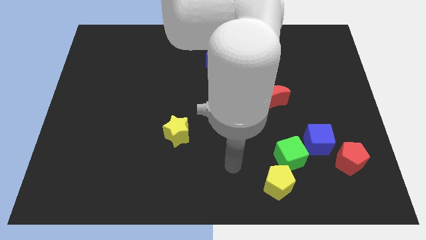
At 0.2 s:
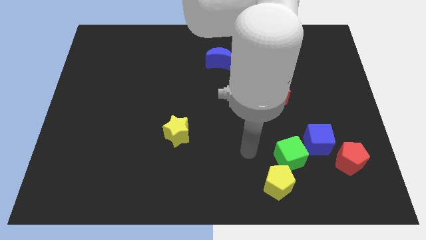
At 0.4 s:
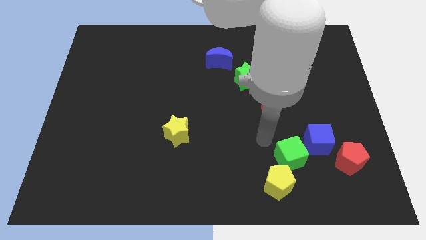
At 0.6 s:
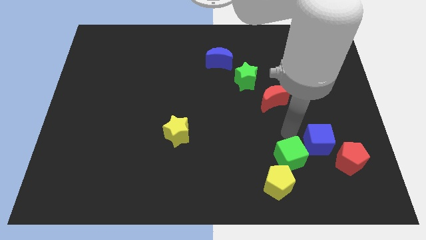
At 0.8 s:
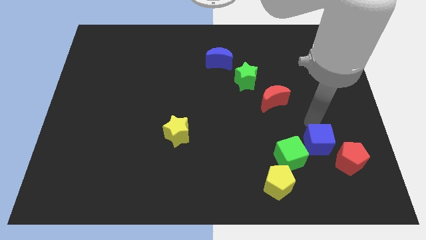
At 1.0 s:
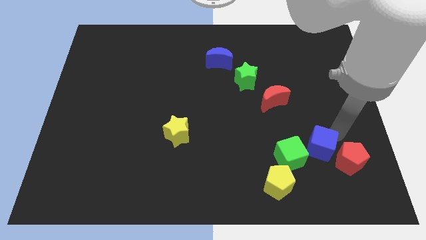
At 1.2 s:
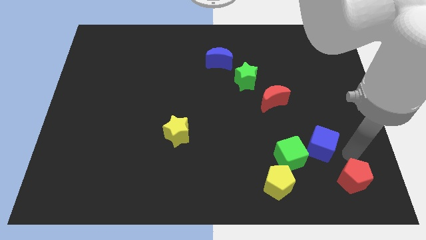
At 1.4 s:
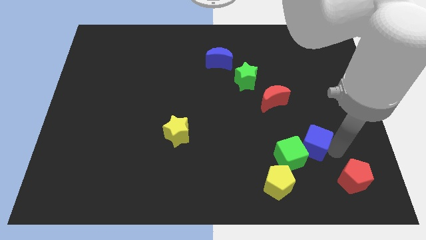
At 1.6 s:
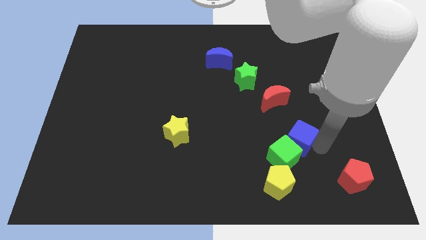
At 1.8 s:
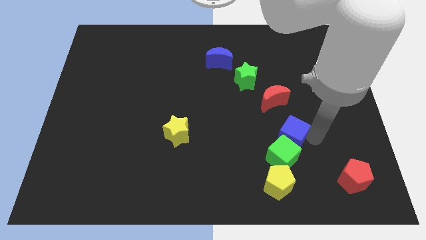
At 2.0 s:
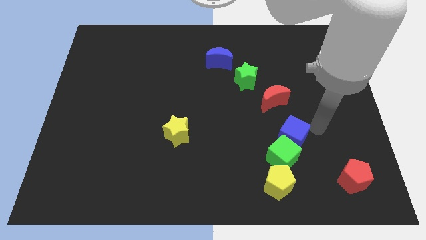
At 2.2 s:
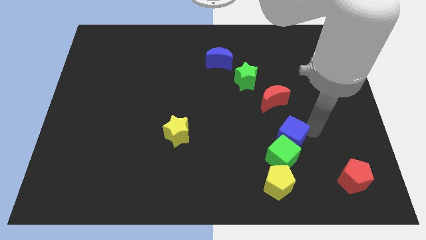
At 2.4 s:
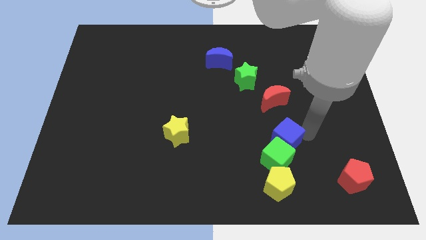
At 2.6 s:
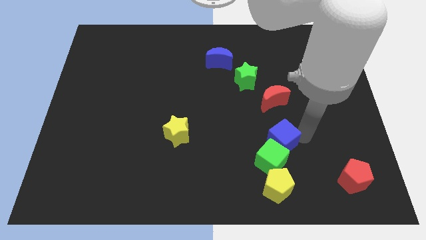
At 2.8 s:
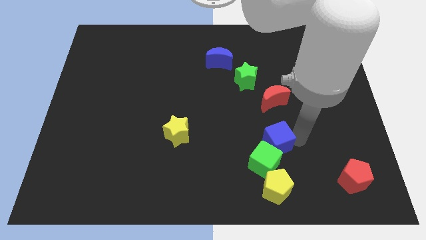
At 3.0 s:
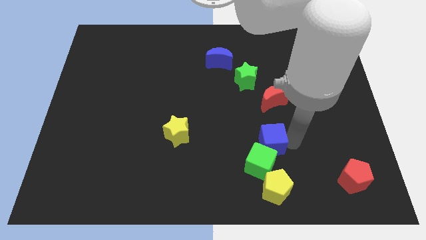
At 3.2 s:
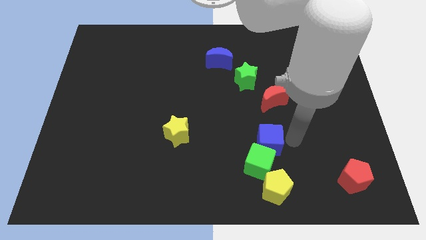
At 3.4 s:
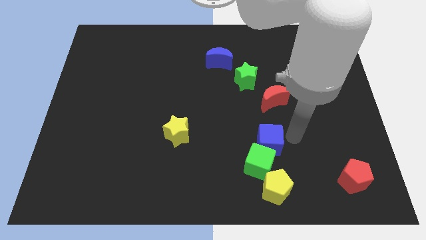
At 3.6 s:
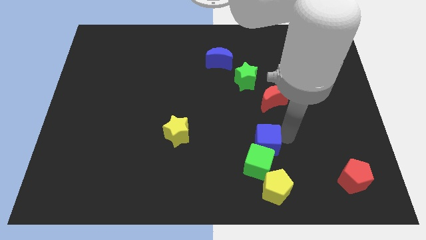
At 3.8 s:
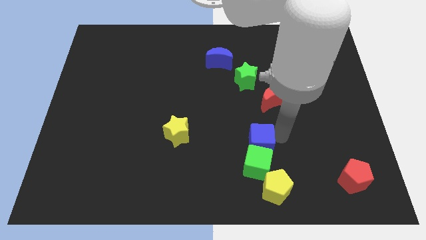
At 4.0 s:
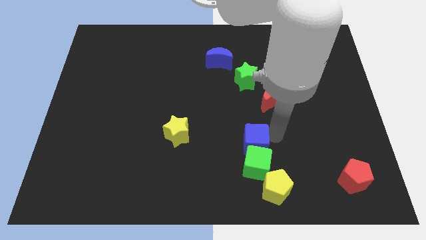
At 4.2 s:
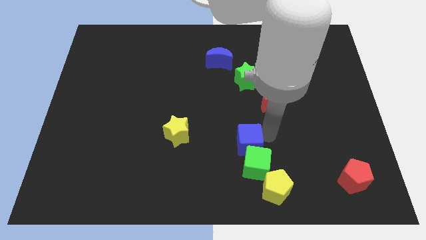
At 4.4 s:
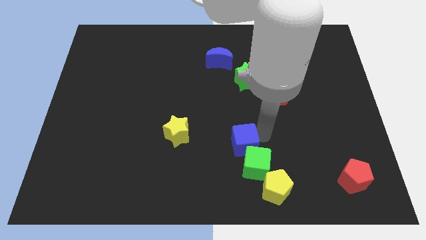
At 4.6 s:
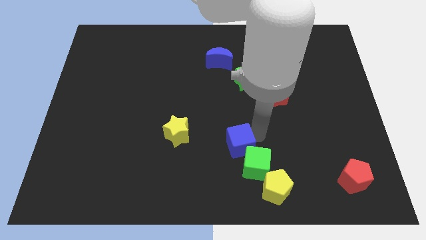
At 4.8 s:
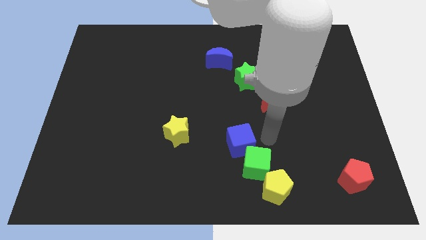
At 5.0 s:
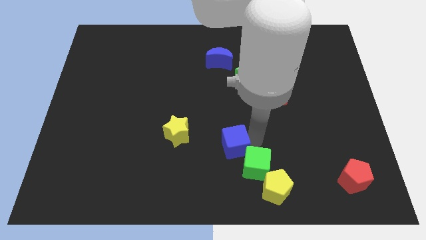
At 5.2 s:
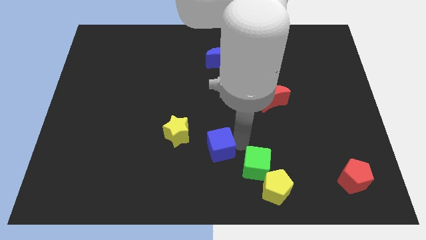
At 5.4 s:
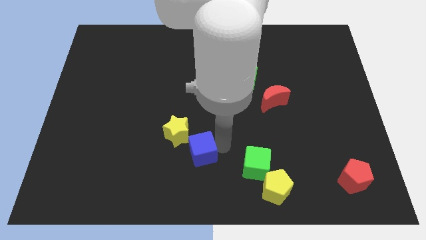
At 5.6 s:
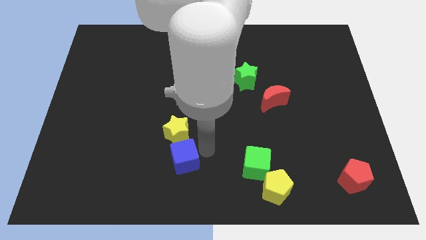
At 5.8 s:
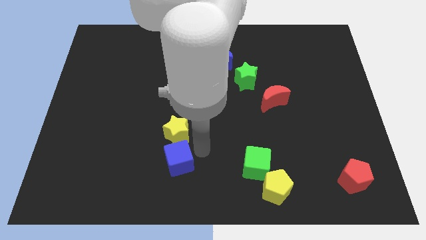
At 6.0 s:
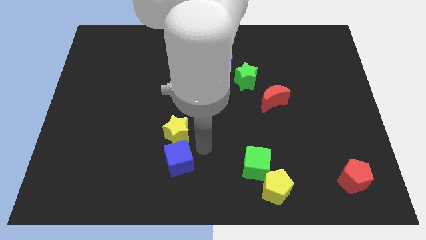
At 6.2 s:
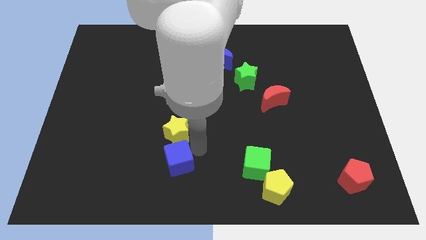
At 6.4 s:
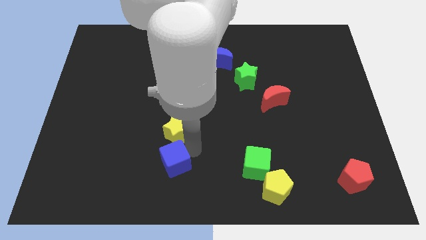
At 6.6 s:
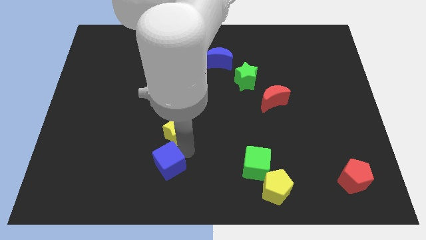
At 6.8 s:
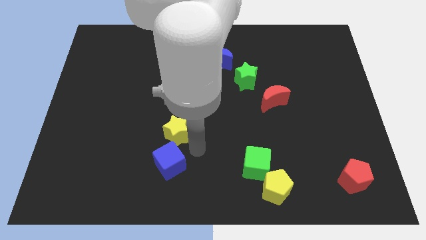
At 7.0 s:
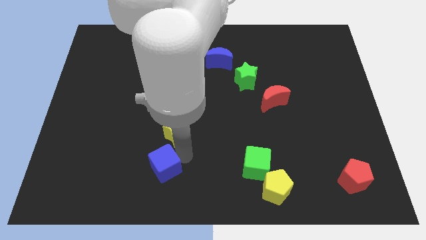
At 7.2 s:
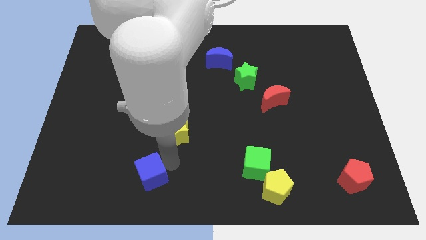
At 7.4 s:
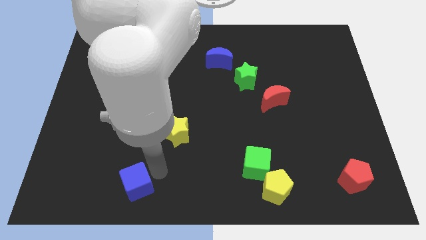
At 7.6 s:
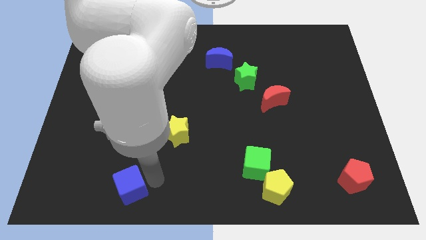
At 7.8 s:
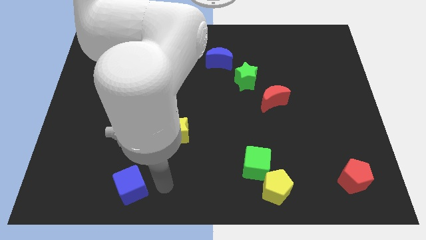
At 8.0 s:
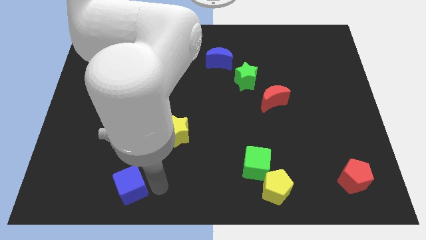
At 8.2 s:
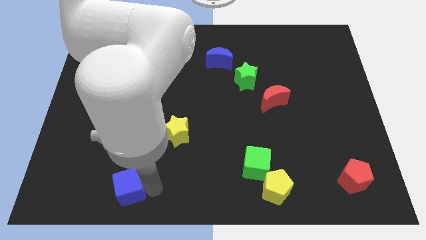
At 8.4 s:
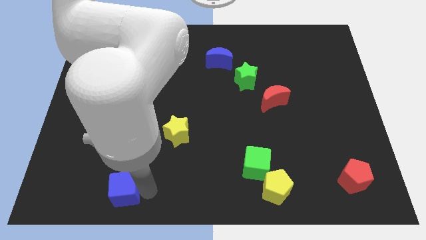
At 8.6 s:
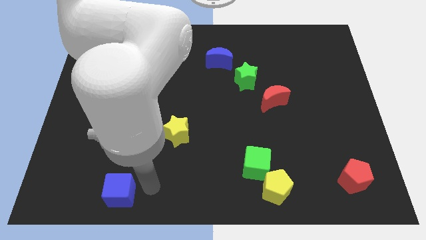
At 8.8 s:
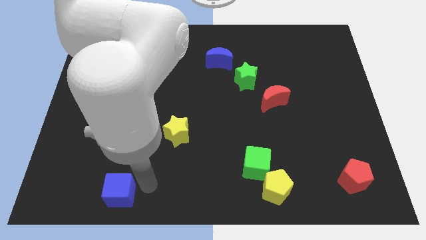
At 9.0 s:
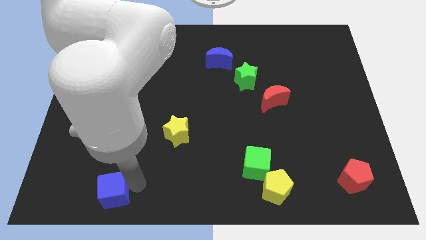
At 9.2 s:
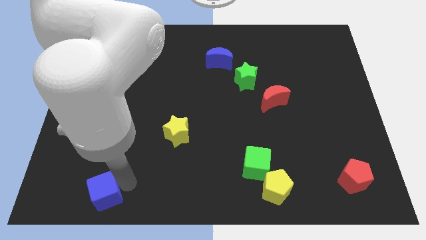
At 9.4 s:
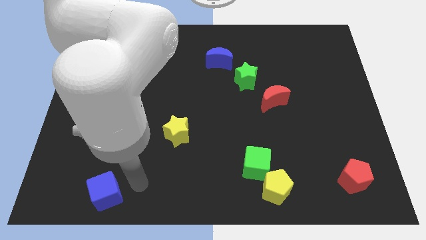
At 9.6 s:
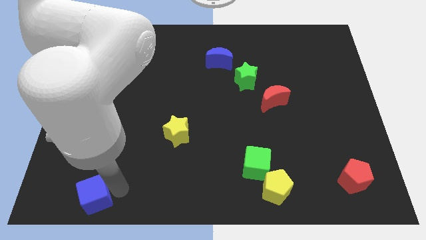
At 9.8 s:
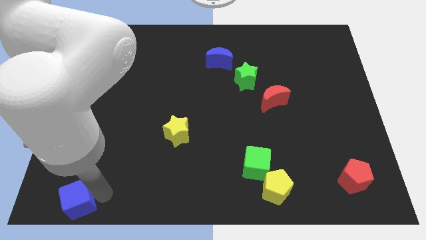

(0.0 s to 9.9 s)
move the blue cube to the bottom left of the board

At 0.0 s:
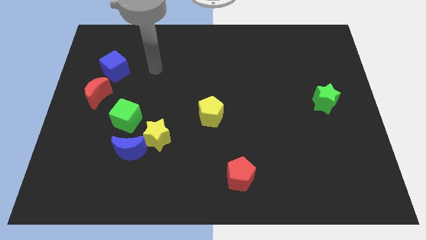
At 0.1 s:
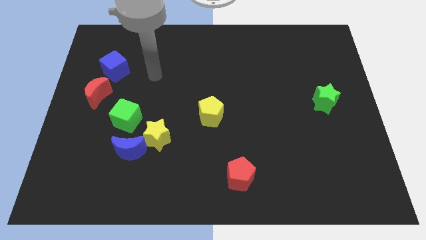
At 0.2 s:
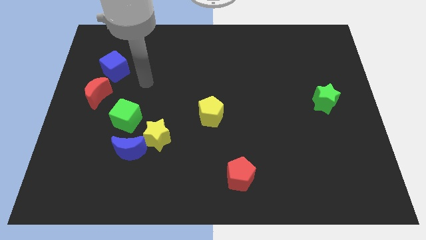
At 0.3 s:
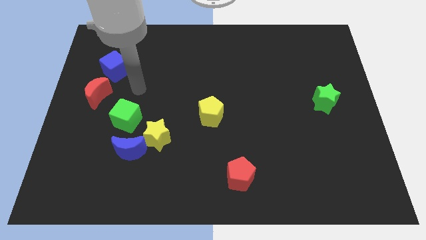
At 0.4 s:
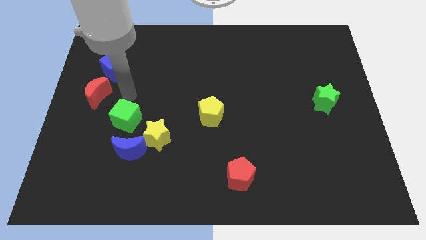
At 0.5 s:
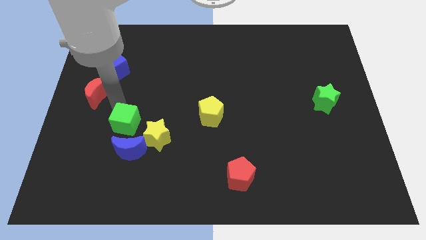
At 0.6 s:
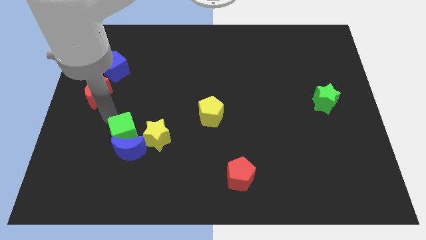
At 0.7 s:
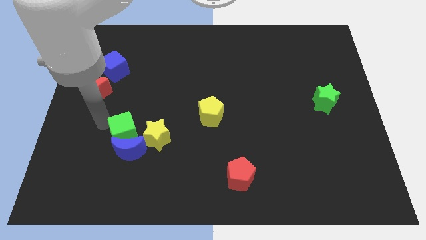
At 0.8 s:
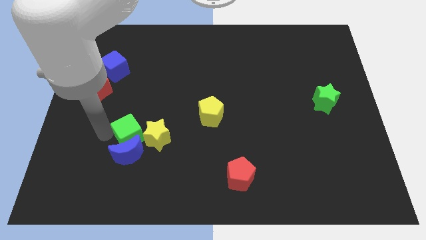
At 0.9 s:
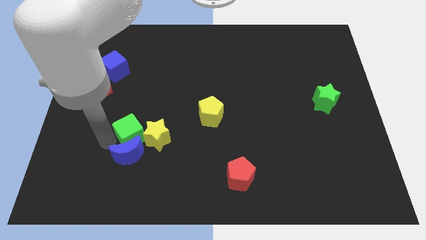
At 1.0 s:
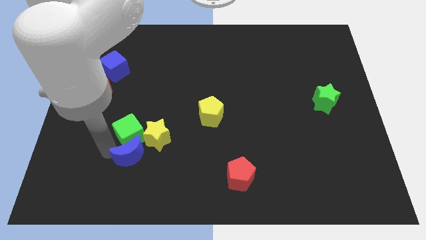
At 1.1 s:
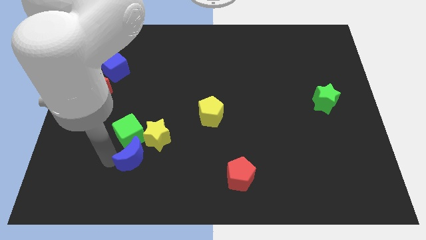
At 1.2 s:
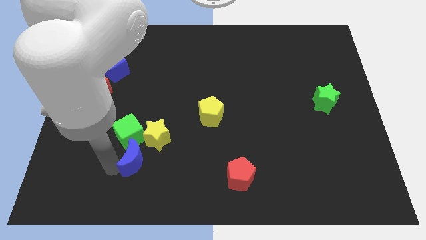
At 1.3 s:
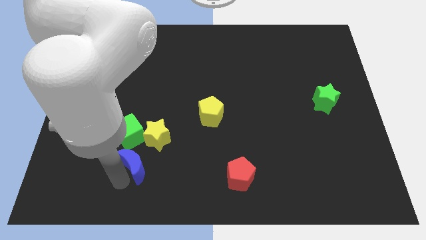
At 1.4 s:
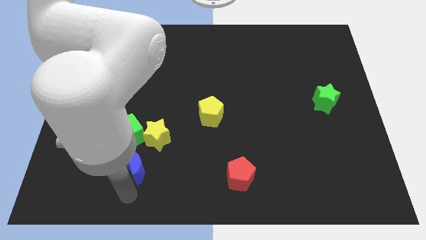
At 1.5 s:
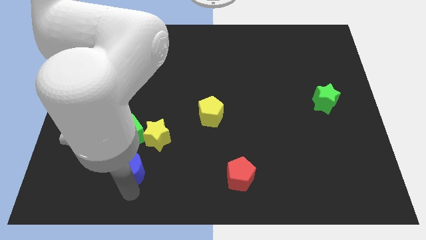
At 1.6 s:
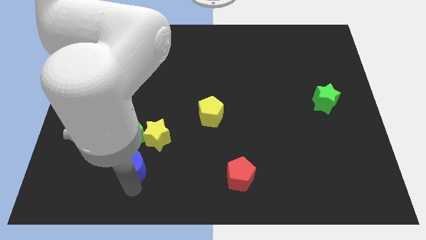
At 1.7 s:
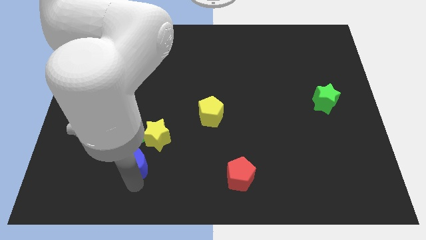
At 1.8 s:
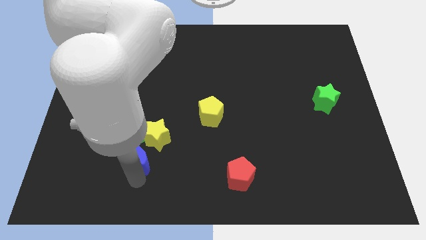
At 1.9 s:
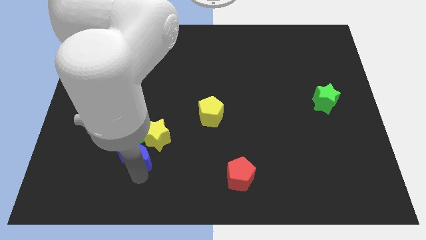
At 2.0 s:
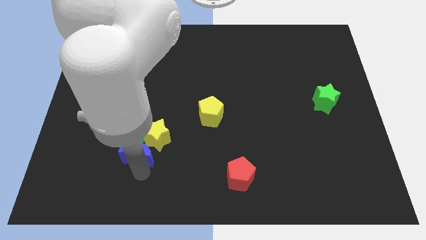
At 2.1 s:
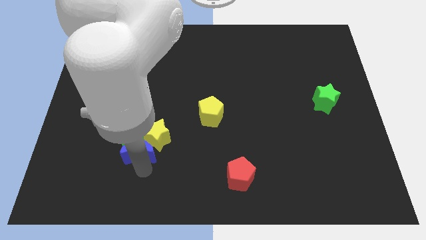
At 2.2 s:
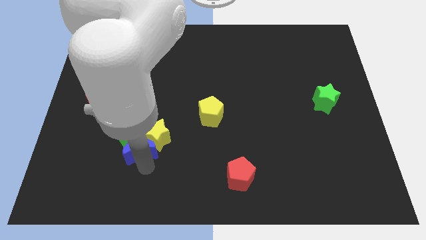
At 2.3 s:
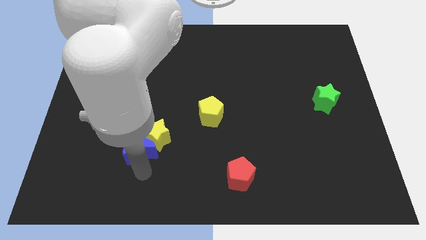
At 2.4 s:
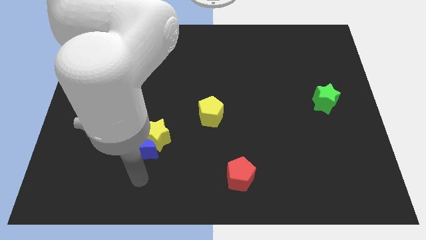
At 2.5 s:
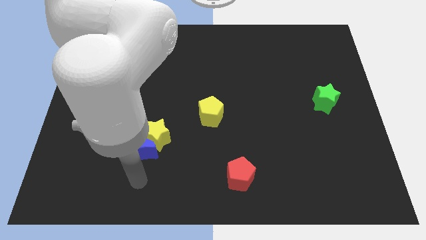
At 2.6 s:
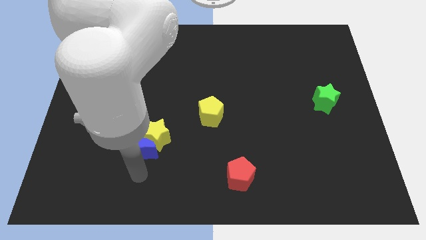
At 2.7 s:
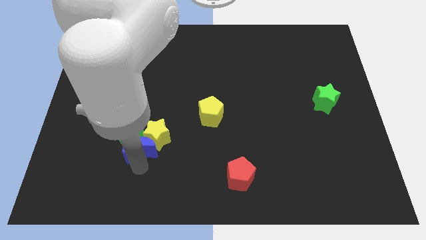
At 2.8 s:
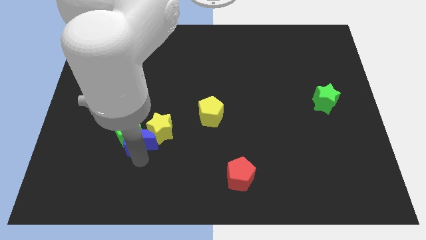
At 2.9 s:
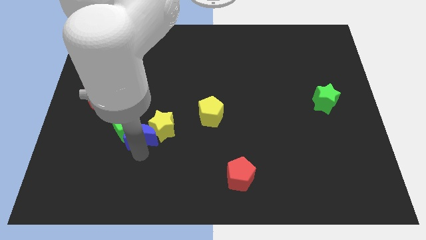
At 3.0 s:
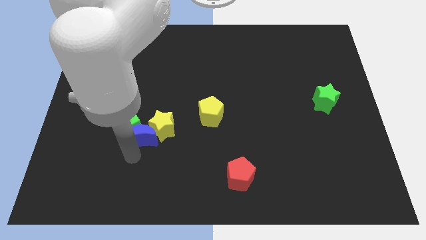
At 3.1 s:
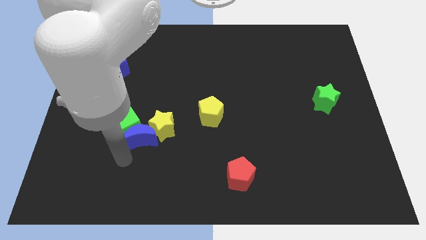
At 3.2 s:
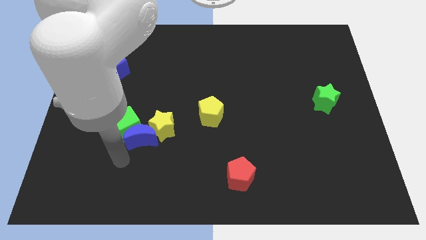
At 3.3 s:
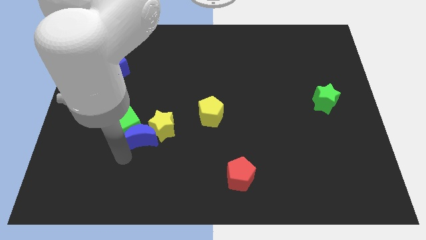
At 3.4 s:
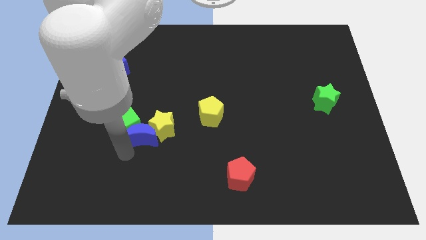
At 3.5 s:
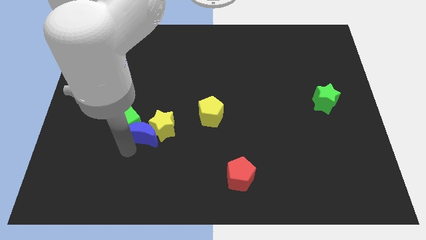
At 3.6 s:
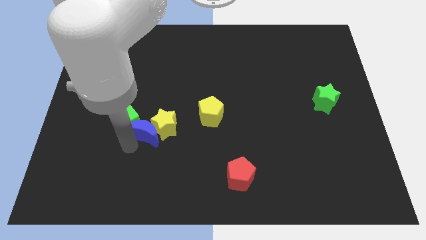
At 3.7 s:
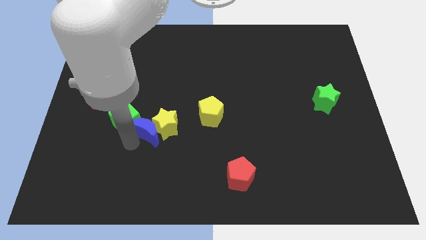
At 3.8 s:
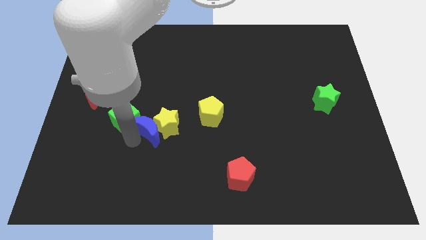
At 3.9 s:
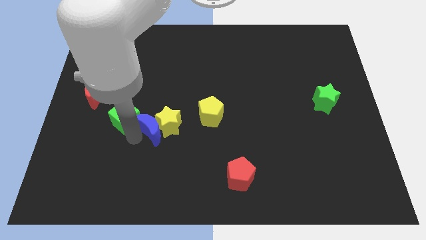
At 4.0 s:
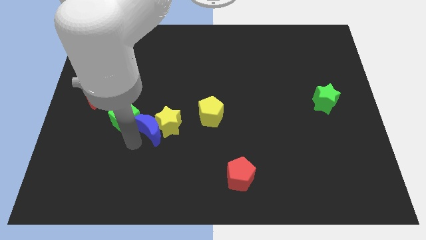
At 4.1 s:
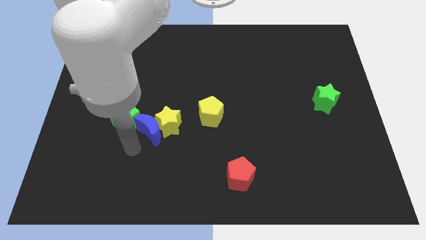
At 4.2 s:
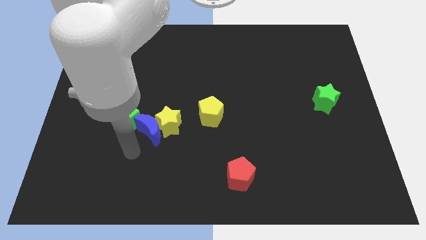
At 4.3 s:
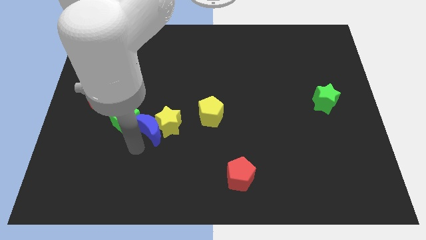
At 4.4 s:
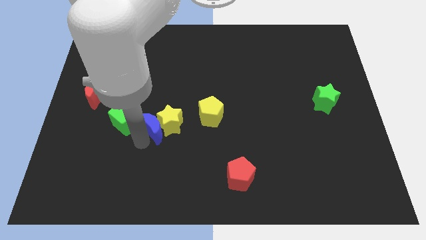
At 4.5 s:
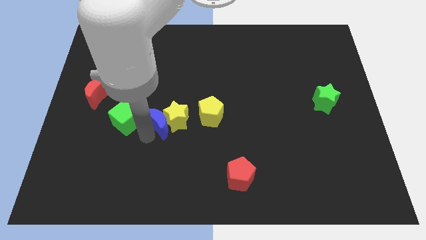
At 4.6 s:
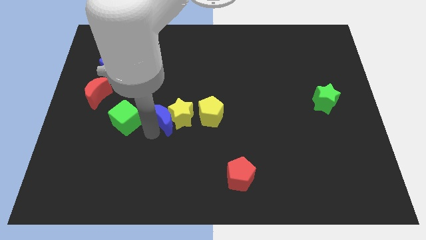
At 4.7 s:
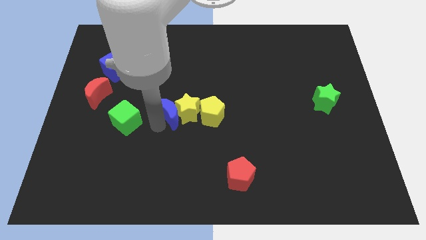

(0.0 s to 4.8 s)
push the blue moon to the center
